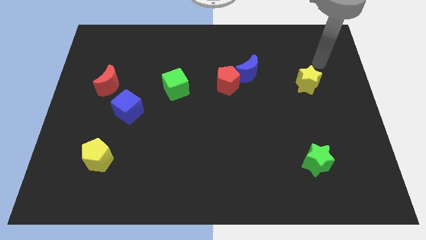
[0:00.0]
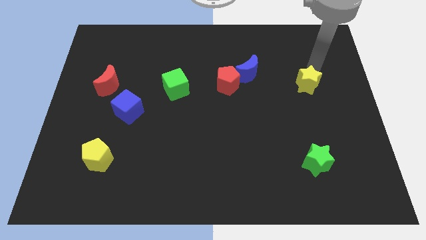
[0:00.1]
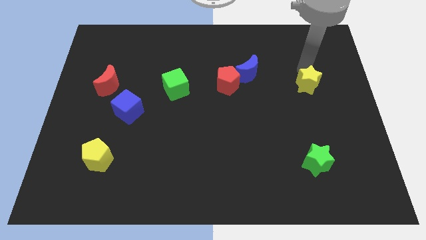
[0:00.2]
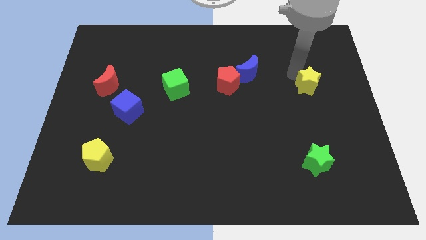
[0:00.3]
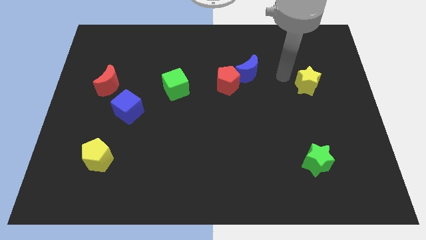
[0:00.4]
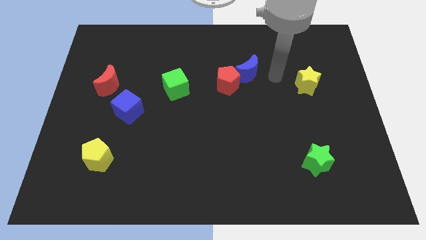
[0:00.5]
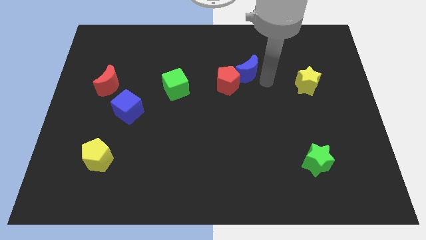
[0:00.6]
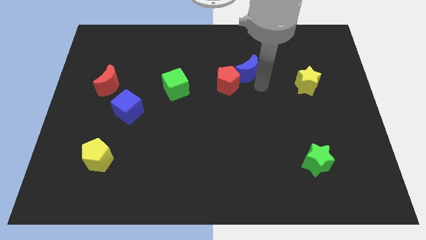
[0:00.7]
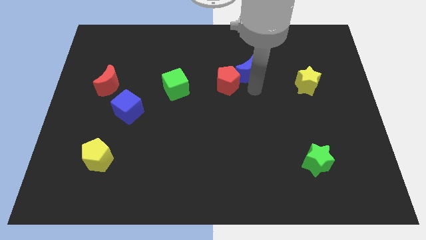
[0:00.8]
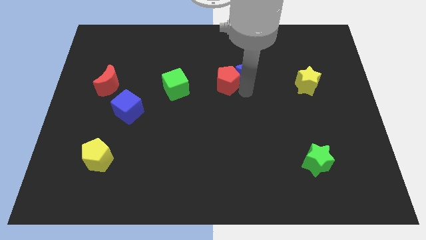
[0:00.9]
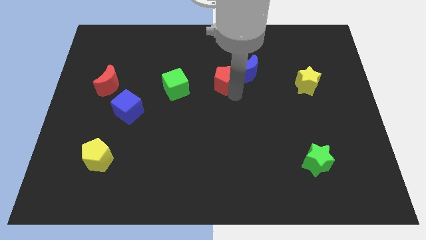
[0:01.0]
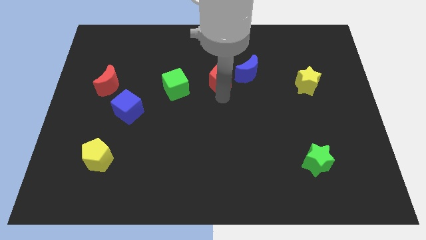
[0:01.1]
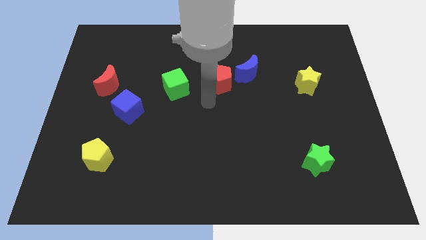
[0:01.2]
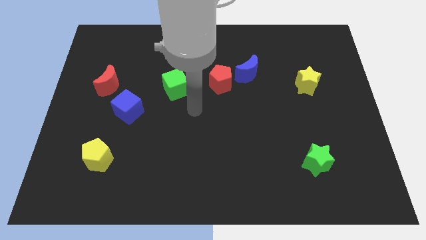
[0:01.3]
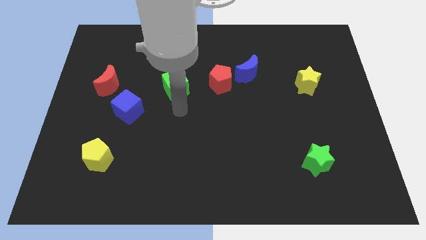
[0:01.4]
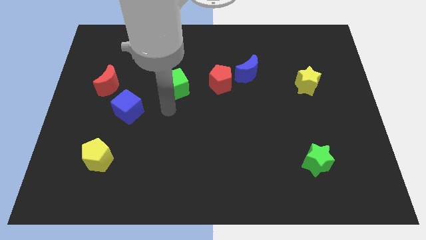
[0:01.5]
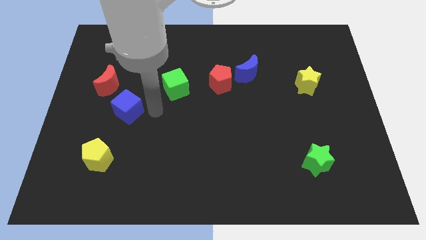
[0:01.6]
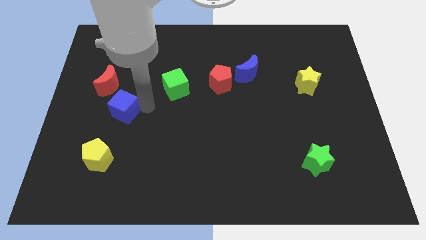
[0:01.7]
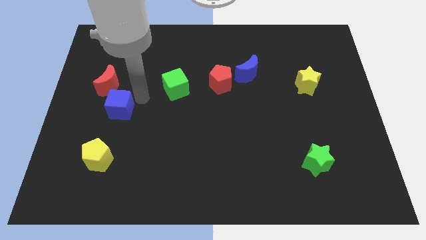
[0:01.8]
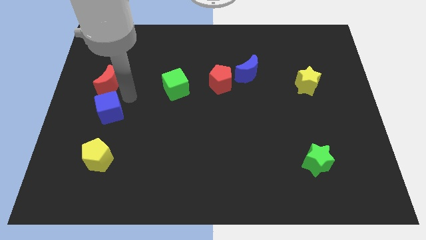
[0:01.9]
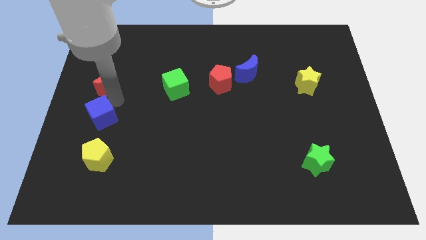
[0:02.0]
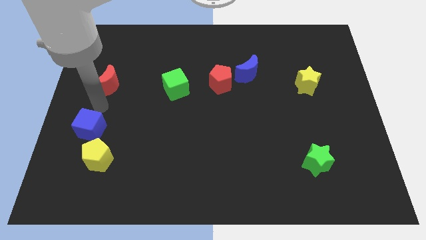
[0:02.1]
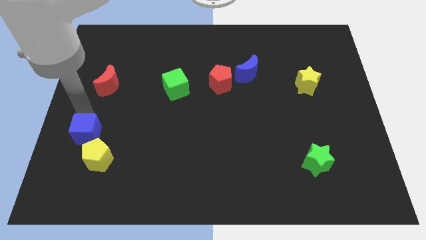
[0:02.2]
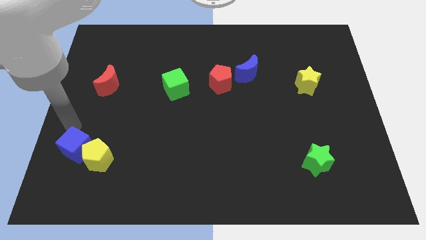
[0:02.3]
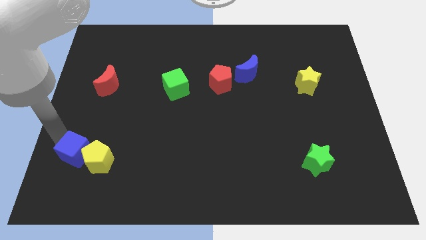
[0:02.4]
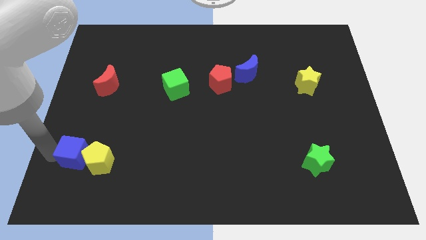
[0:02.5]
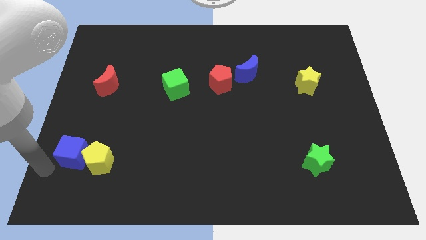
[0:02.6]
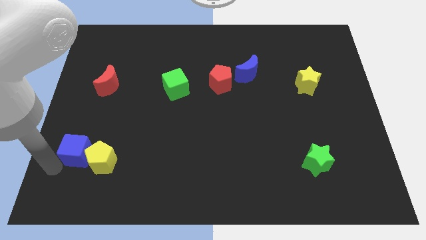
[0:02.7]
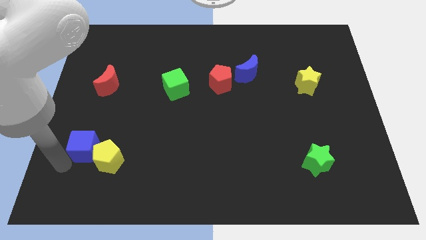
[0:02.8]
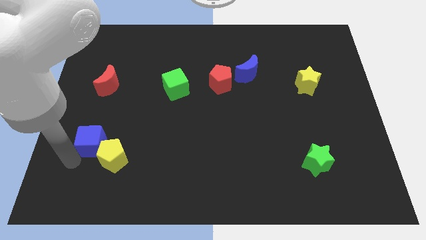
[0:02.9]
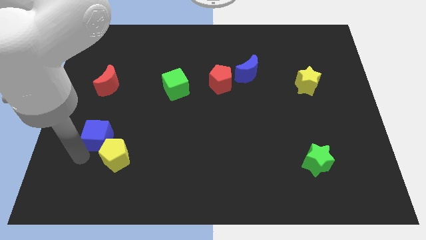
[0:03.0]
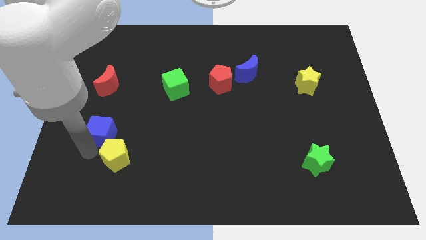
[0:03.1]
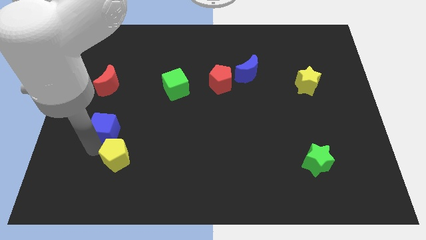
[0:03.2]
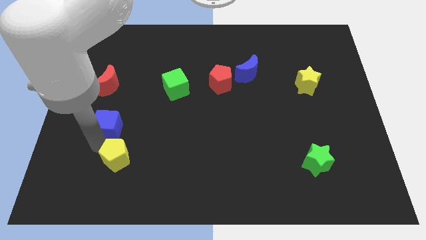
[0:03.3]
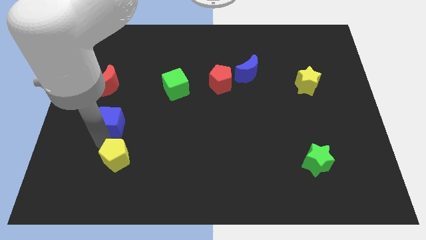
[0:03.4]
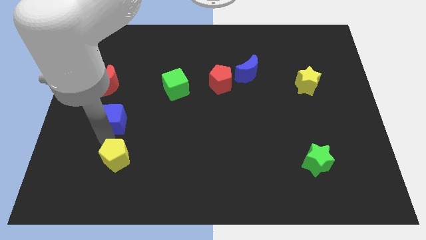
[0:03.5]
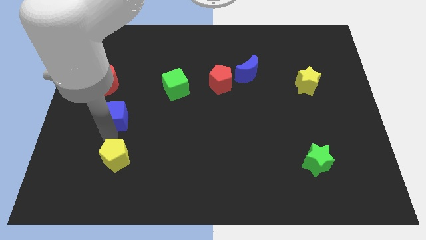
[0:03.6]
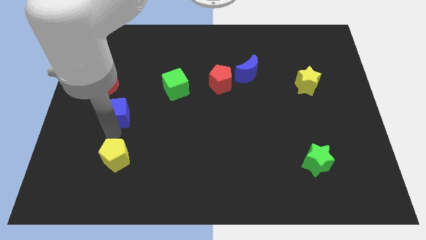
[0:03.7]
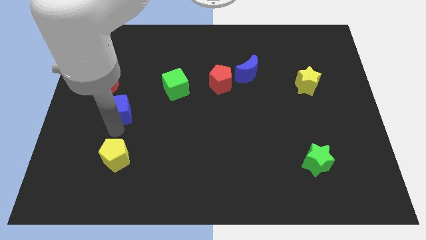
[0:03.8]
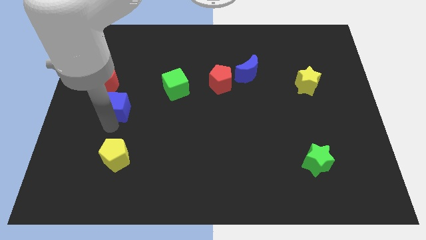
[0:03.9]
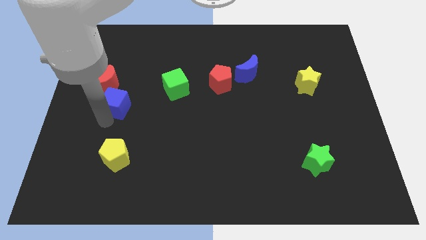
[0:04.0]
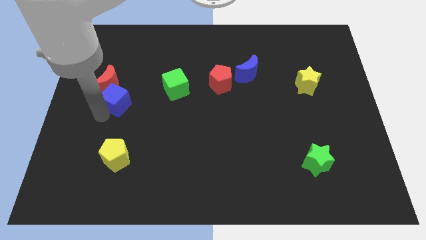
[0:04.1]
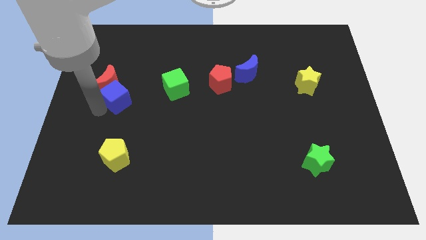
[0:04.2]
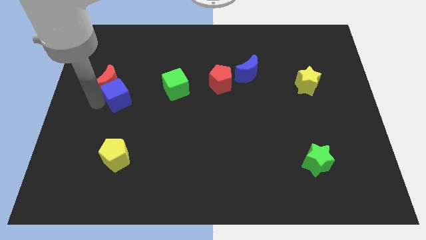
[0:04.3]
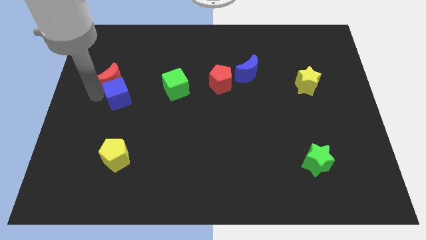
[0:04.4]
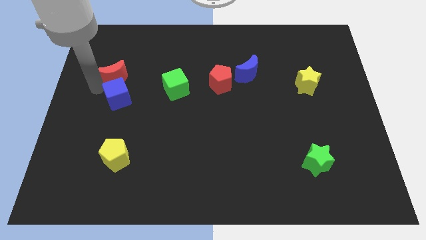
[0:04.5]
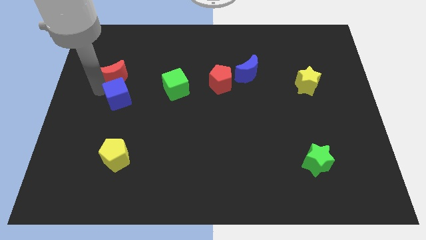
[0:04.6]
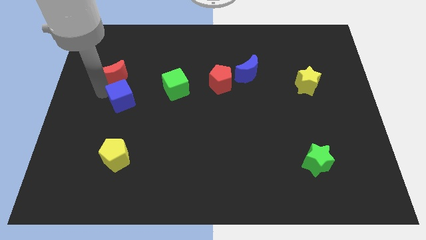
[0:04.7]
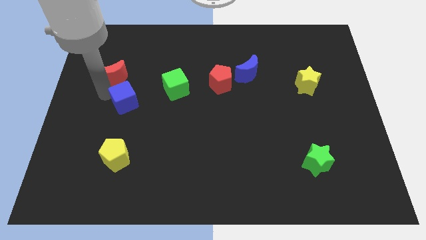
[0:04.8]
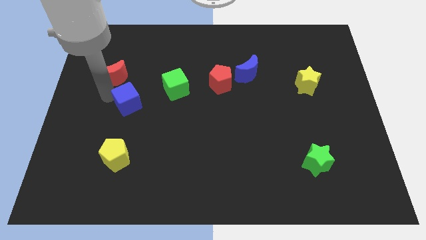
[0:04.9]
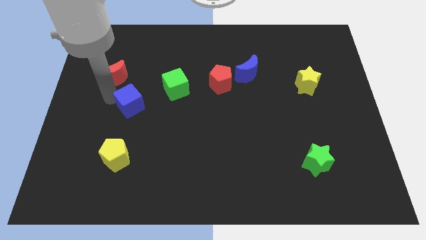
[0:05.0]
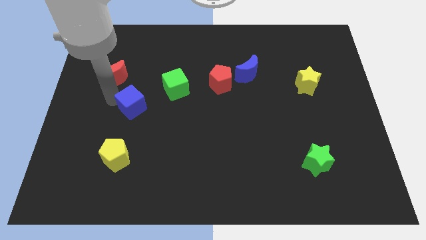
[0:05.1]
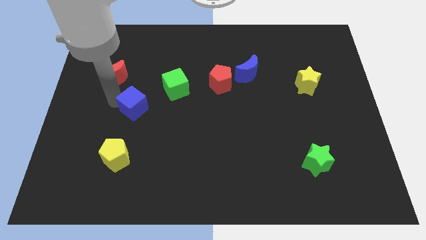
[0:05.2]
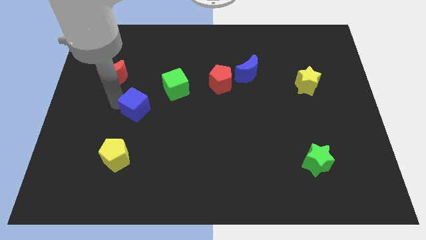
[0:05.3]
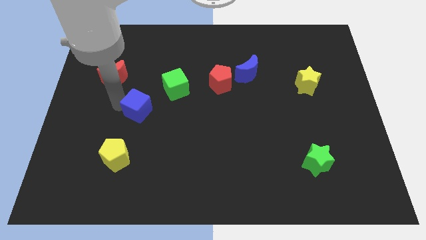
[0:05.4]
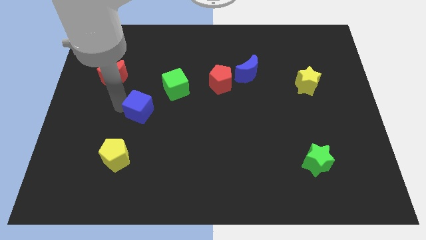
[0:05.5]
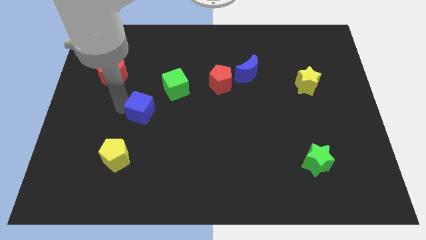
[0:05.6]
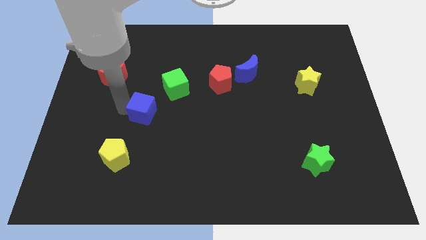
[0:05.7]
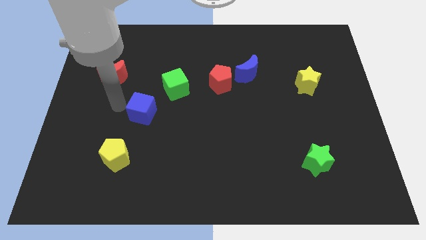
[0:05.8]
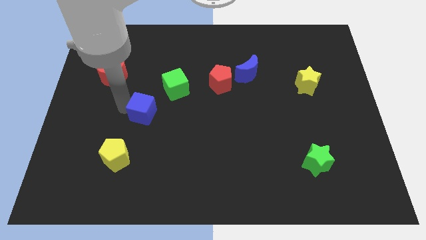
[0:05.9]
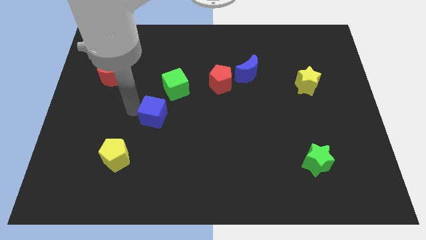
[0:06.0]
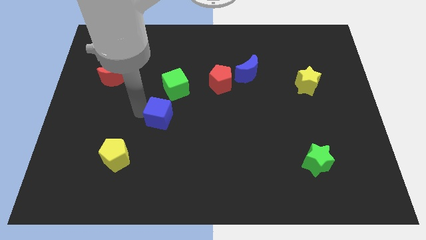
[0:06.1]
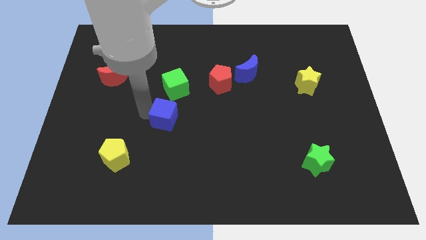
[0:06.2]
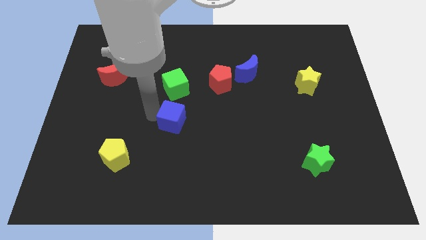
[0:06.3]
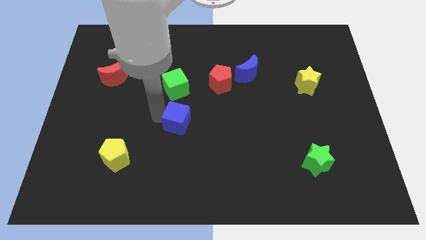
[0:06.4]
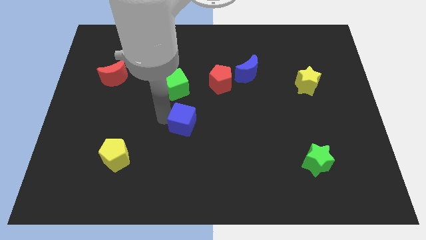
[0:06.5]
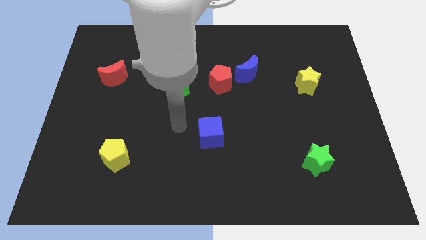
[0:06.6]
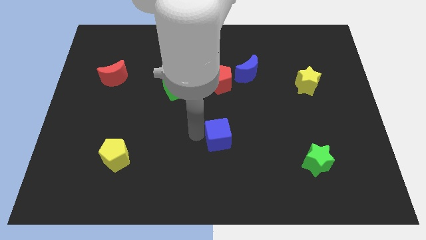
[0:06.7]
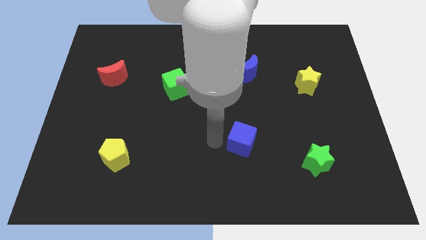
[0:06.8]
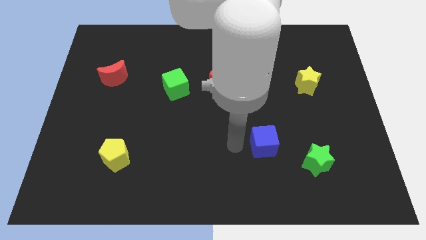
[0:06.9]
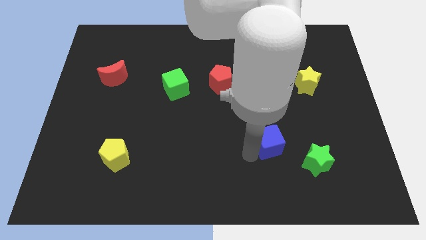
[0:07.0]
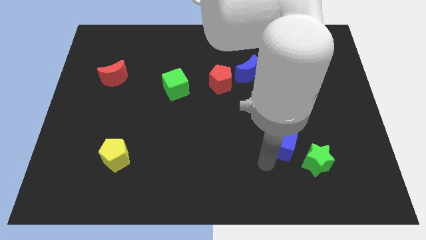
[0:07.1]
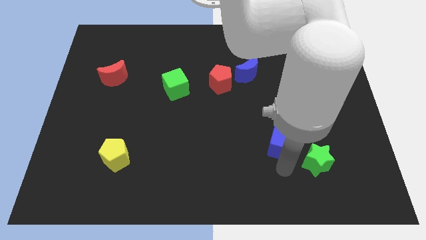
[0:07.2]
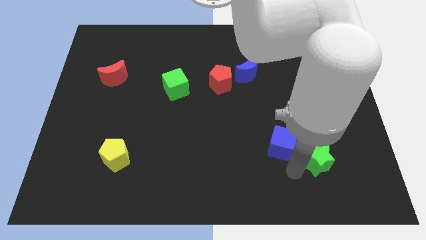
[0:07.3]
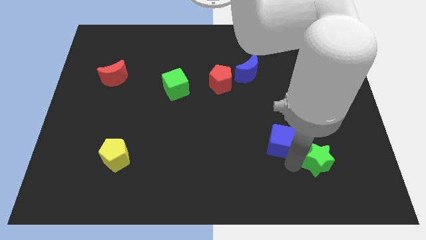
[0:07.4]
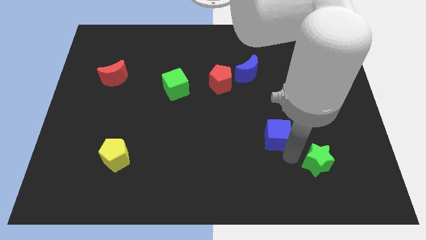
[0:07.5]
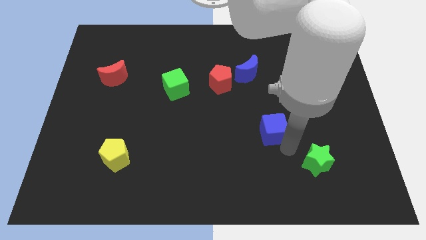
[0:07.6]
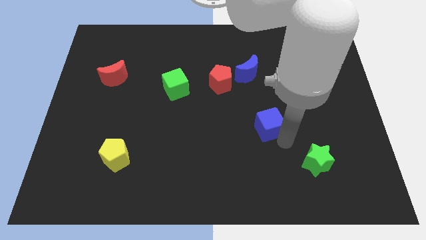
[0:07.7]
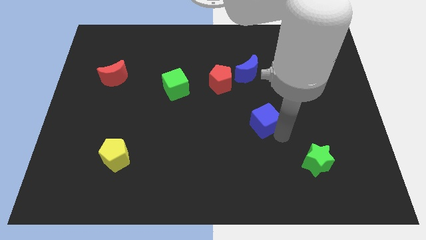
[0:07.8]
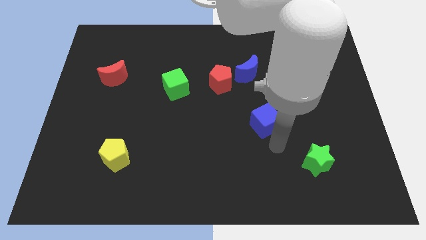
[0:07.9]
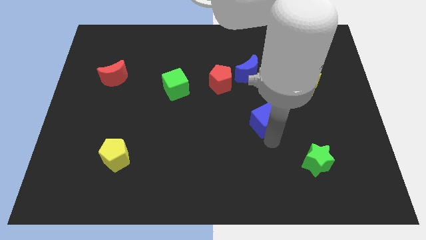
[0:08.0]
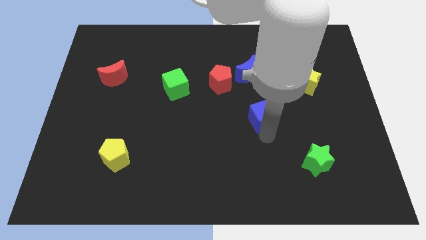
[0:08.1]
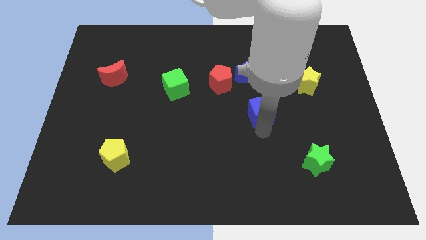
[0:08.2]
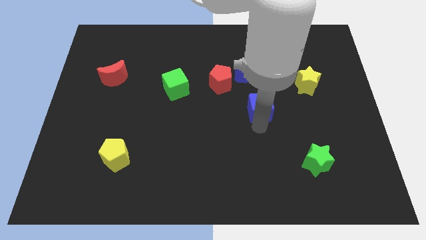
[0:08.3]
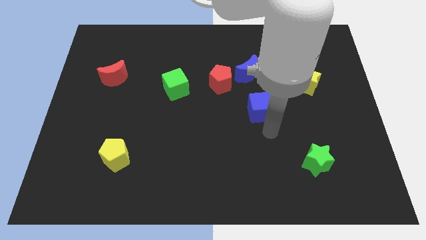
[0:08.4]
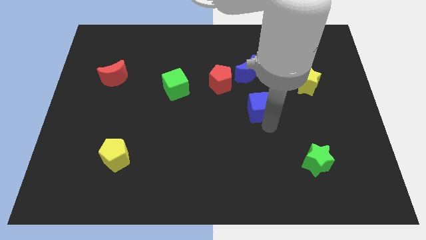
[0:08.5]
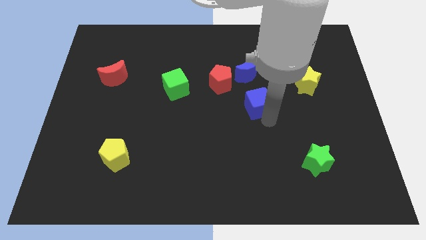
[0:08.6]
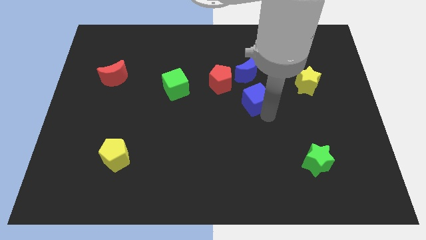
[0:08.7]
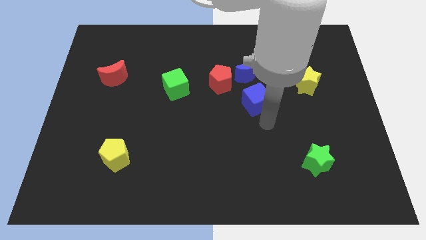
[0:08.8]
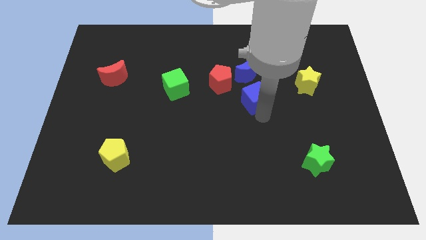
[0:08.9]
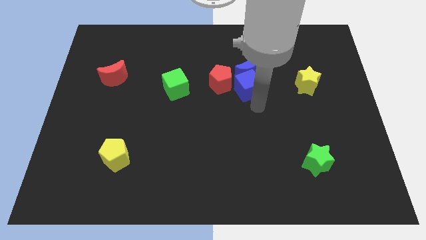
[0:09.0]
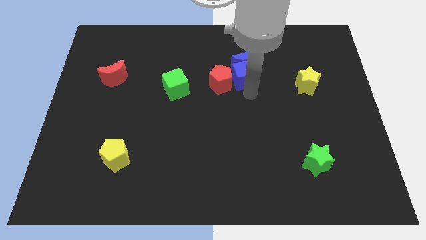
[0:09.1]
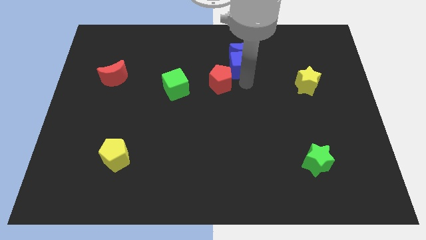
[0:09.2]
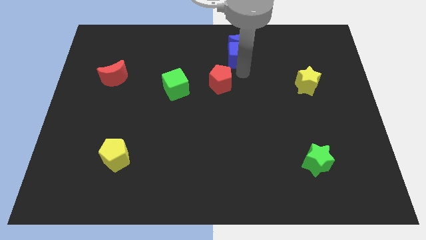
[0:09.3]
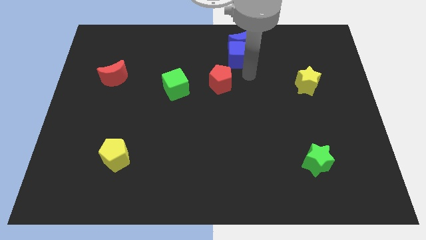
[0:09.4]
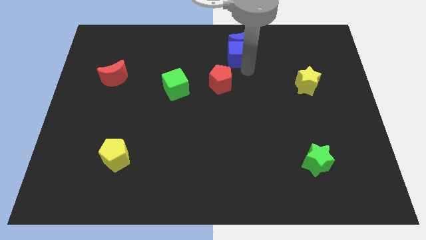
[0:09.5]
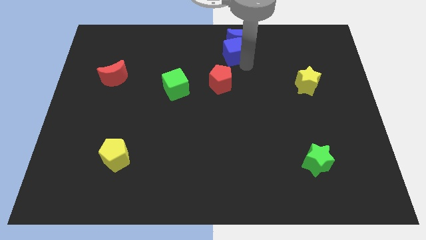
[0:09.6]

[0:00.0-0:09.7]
slide the blue cube to the top side
